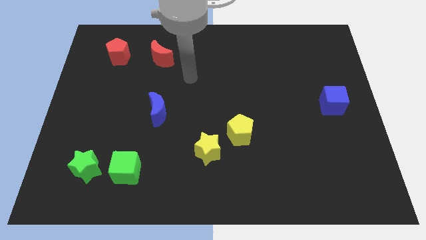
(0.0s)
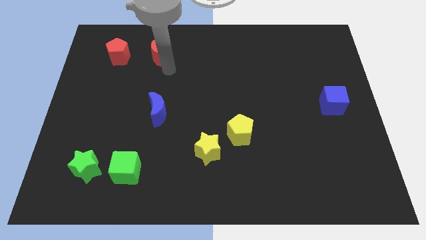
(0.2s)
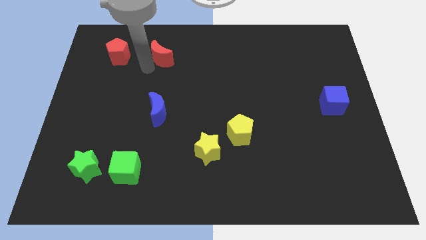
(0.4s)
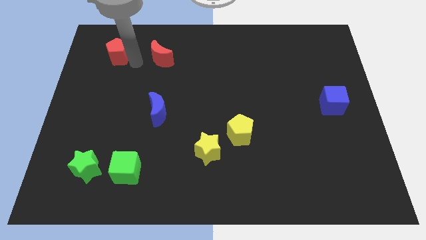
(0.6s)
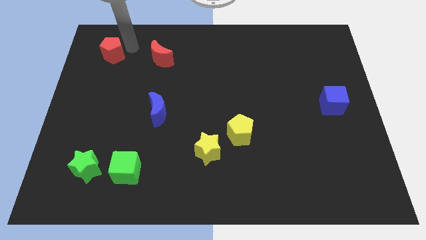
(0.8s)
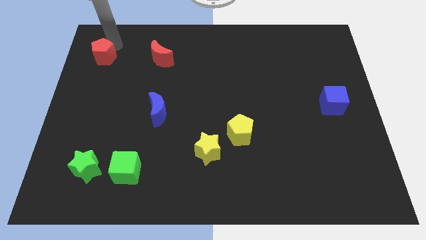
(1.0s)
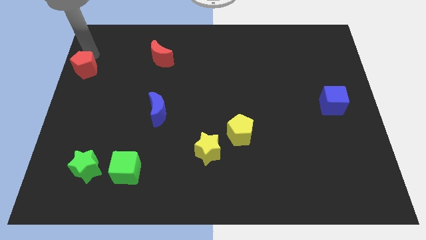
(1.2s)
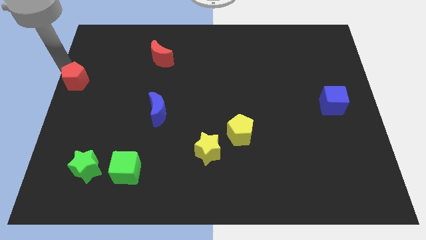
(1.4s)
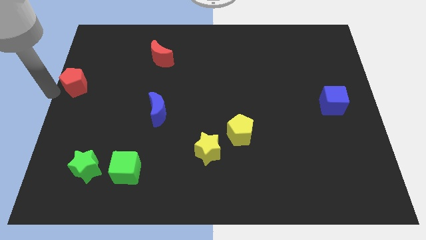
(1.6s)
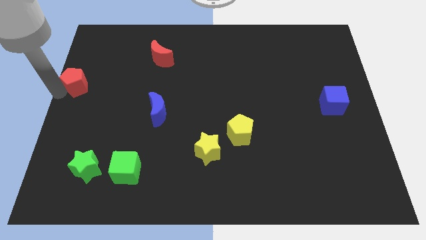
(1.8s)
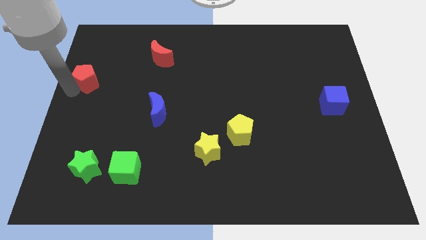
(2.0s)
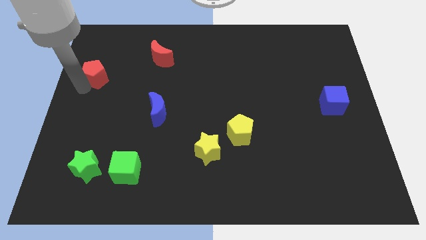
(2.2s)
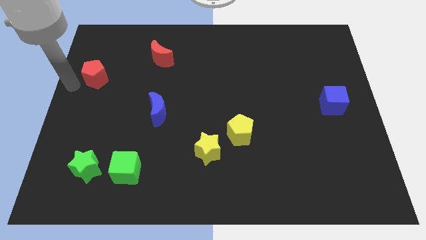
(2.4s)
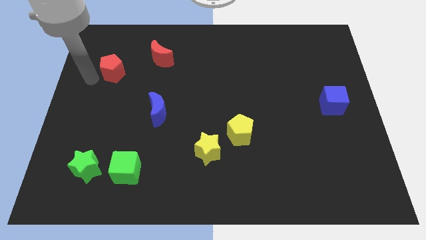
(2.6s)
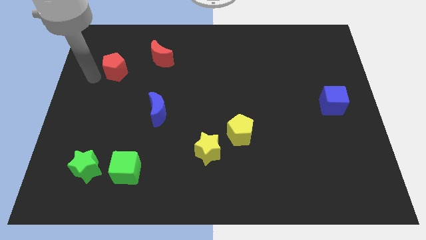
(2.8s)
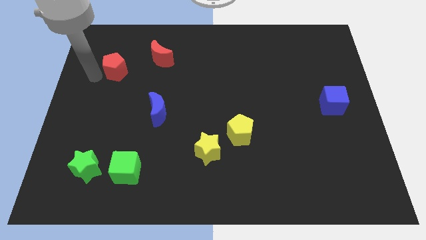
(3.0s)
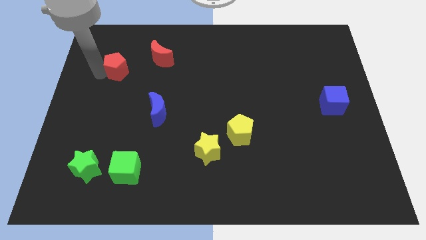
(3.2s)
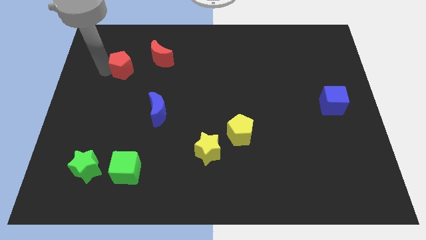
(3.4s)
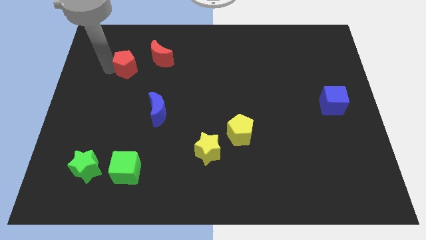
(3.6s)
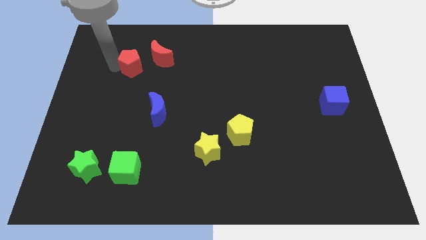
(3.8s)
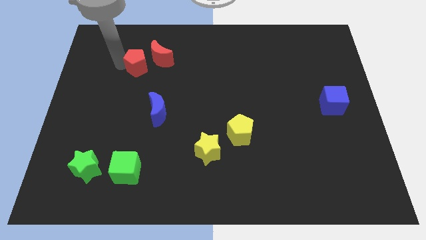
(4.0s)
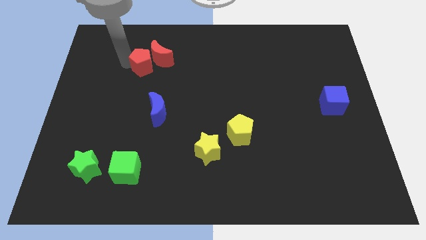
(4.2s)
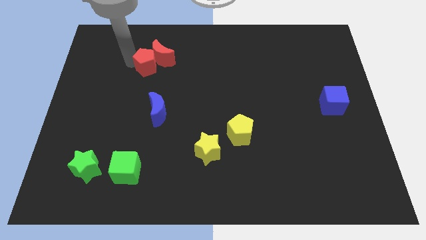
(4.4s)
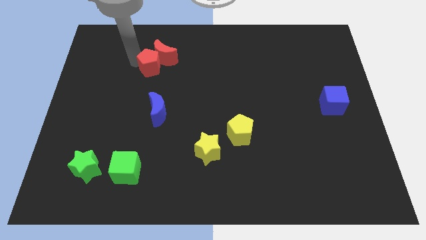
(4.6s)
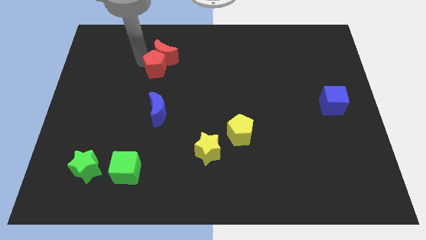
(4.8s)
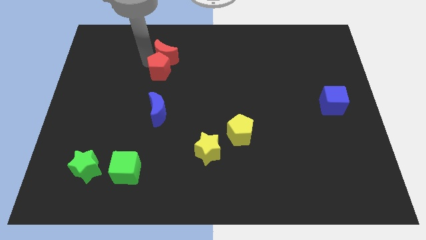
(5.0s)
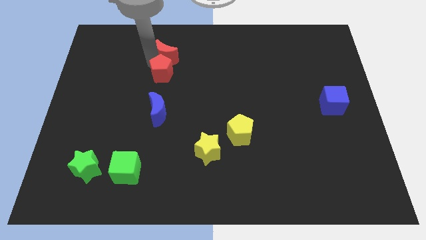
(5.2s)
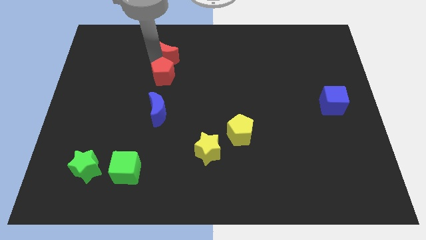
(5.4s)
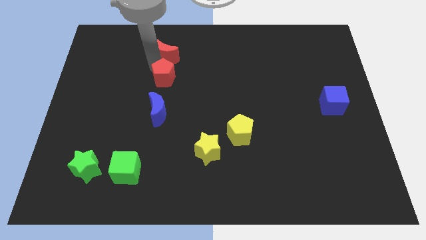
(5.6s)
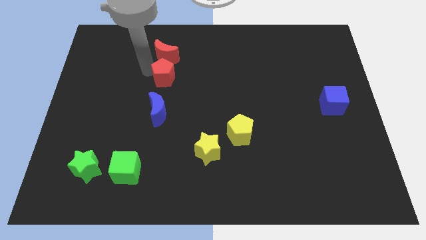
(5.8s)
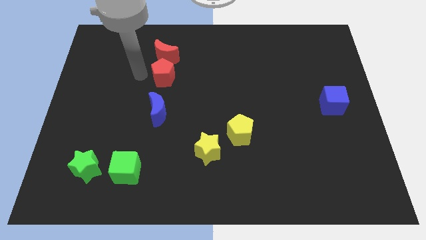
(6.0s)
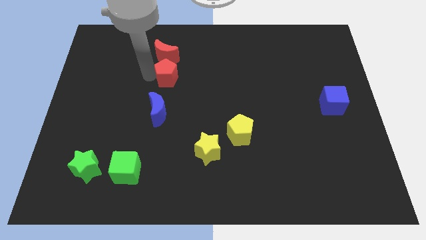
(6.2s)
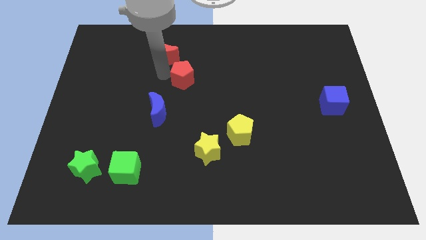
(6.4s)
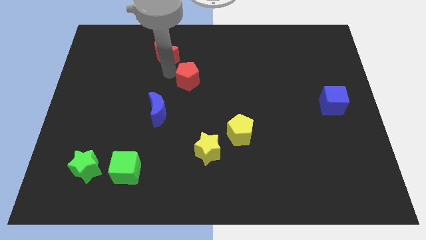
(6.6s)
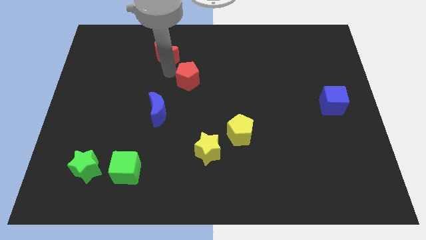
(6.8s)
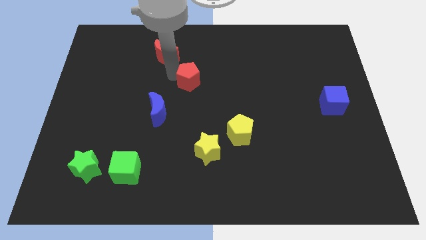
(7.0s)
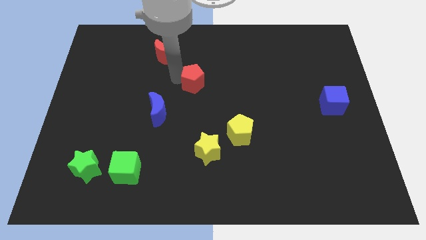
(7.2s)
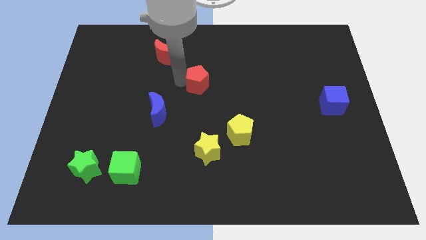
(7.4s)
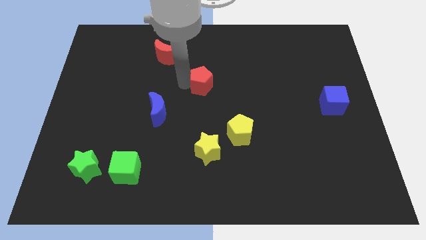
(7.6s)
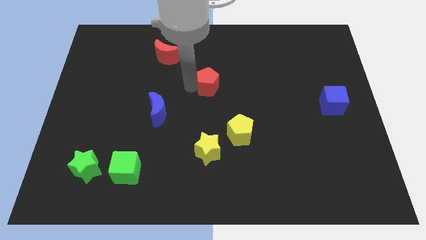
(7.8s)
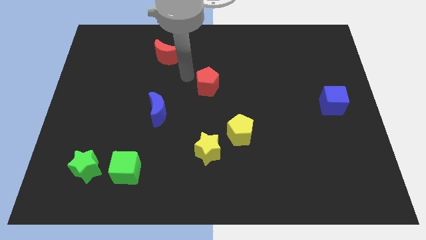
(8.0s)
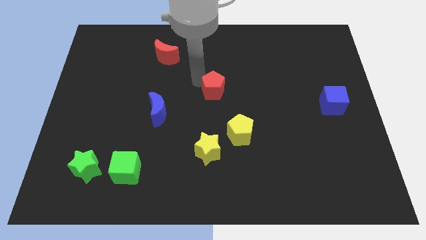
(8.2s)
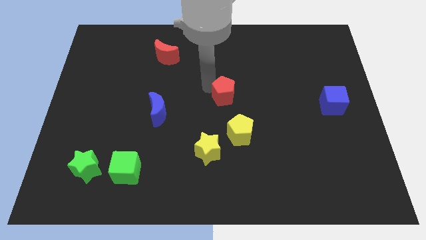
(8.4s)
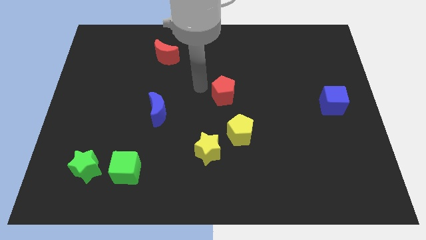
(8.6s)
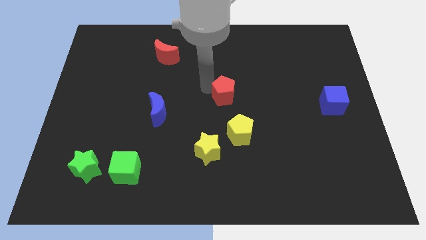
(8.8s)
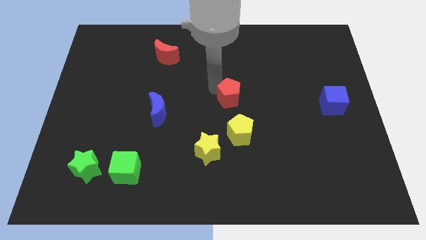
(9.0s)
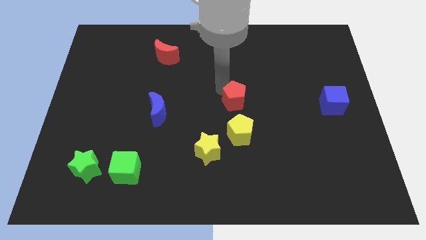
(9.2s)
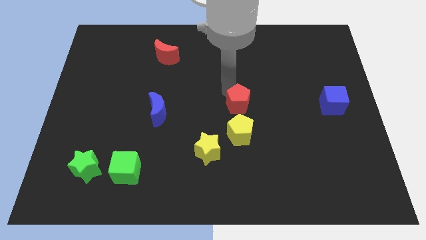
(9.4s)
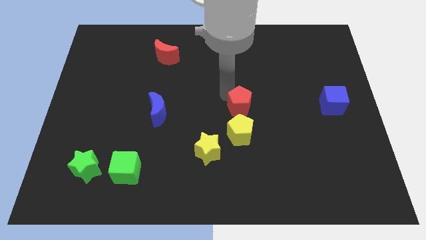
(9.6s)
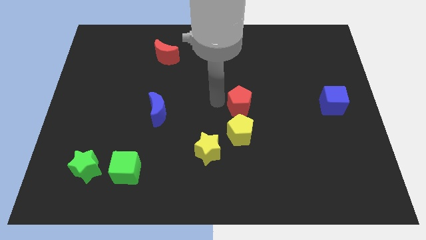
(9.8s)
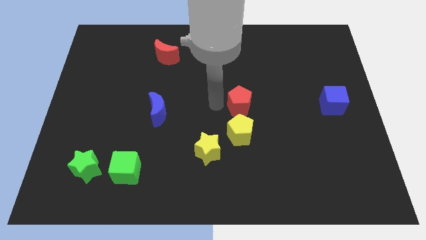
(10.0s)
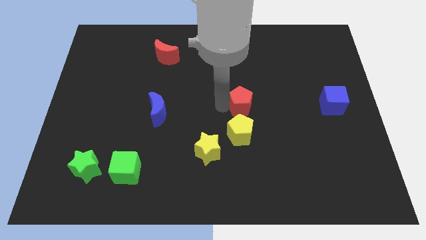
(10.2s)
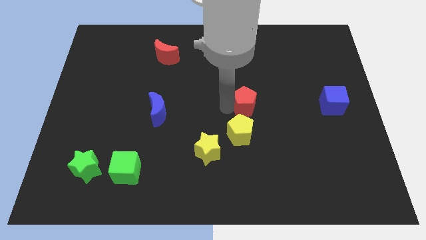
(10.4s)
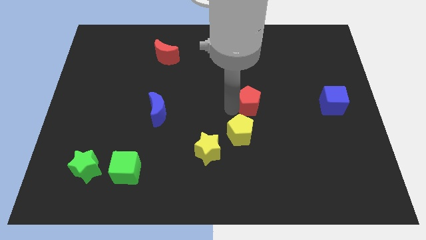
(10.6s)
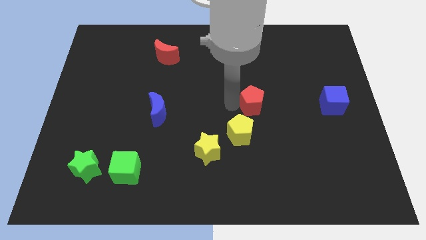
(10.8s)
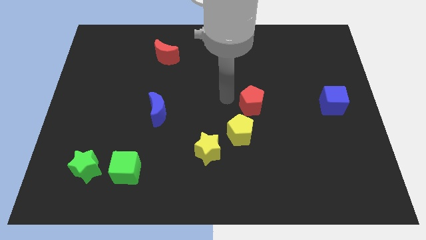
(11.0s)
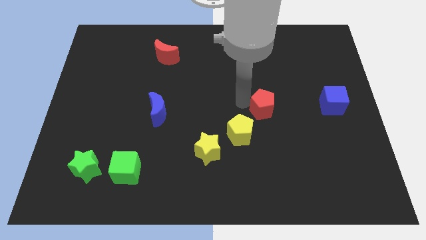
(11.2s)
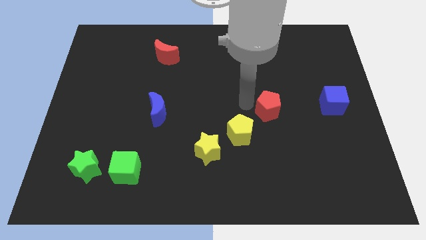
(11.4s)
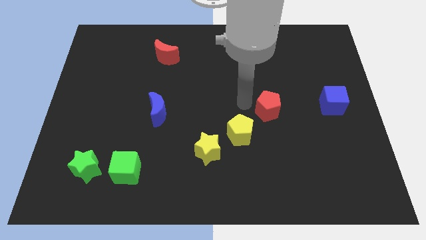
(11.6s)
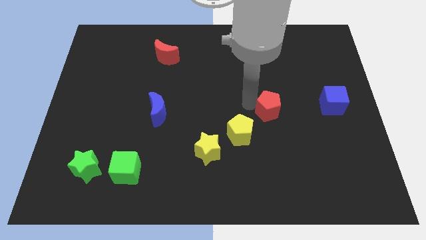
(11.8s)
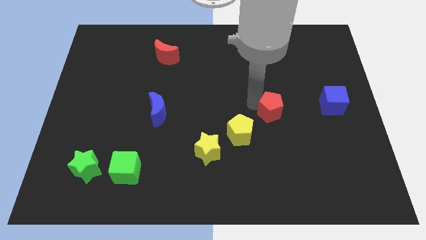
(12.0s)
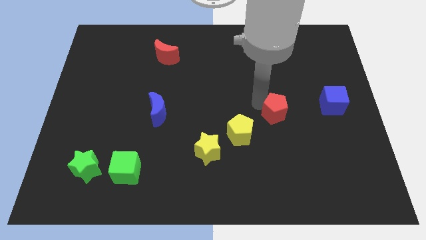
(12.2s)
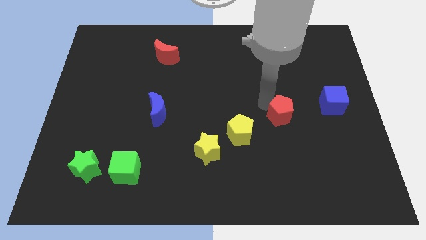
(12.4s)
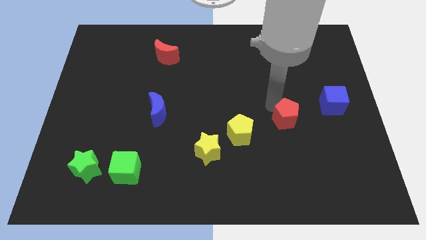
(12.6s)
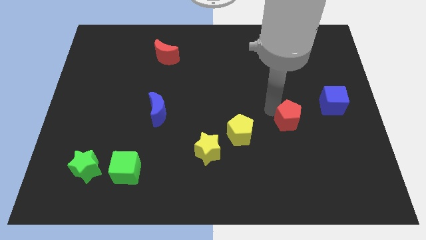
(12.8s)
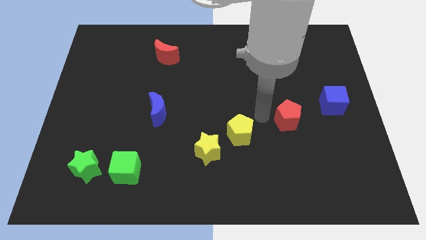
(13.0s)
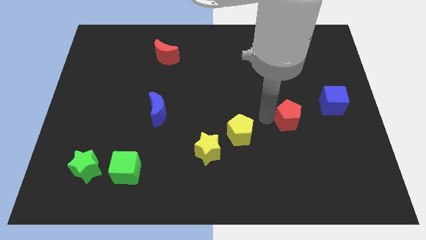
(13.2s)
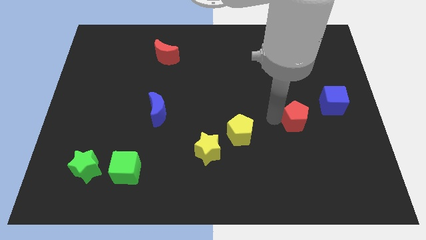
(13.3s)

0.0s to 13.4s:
put the red pentagon to the bottom left of the blue cube
